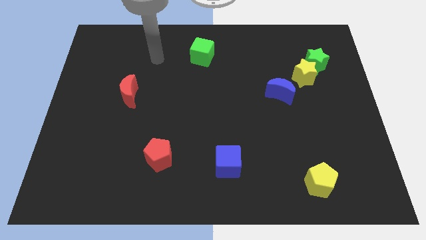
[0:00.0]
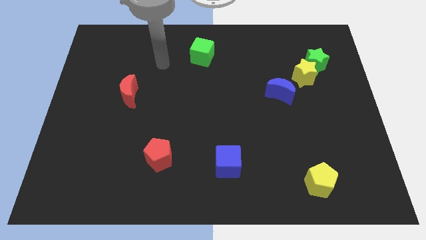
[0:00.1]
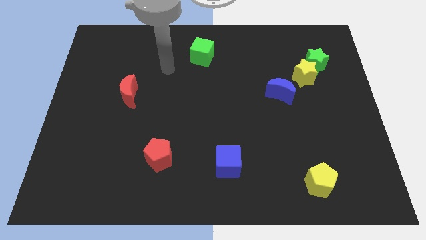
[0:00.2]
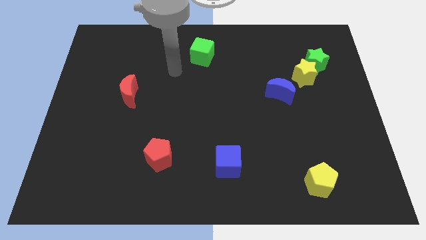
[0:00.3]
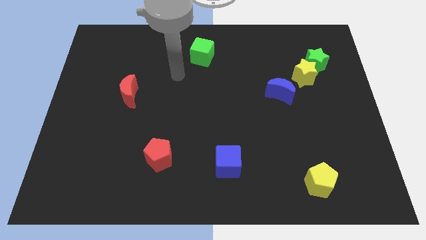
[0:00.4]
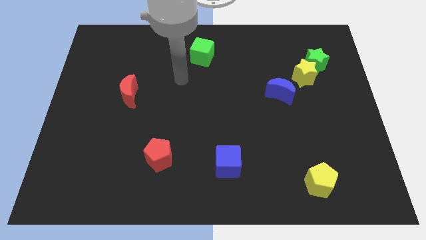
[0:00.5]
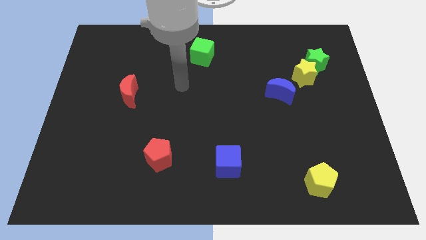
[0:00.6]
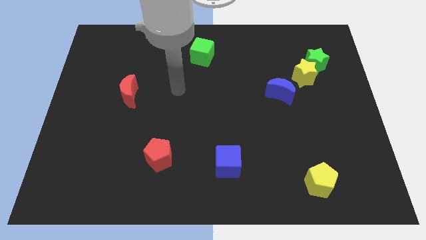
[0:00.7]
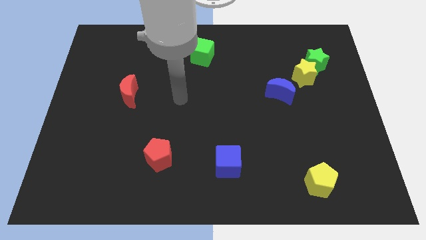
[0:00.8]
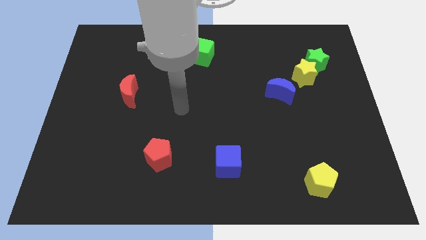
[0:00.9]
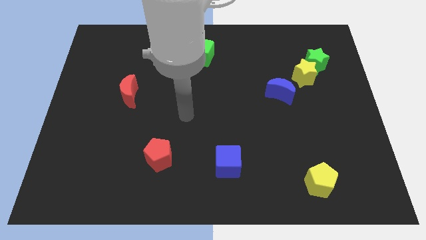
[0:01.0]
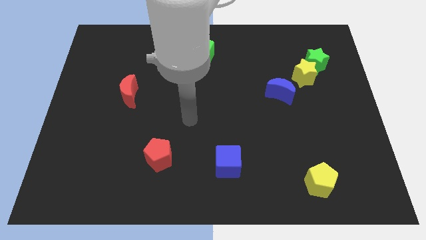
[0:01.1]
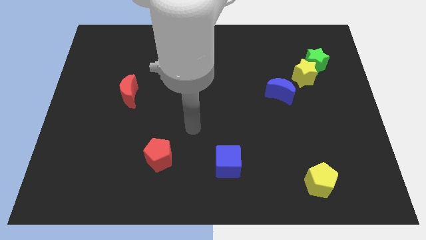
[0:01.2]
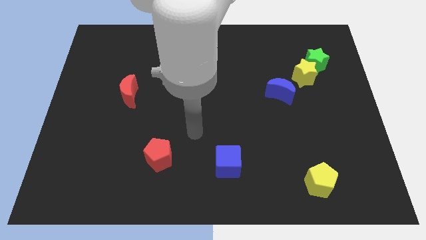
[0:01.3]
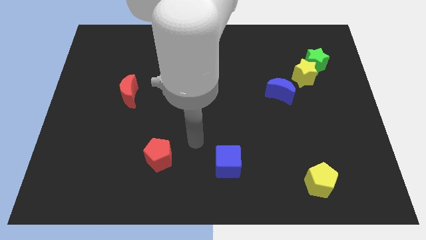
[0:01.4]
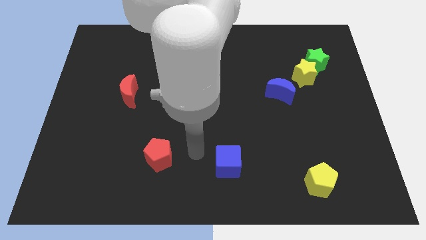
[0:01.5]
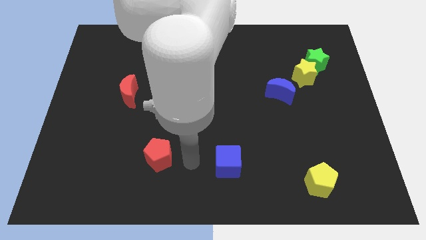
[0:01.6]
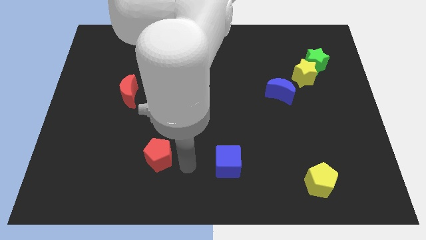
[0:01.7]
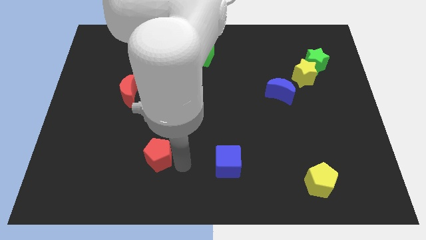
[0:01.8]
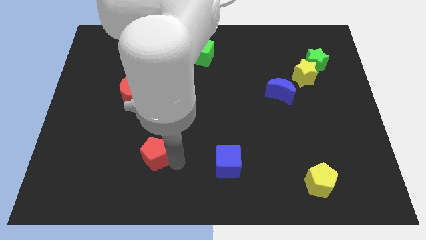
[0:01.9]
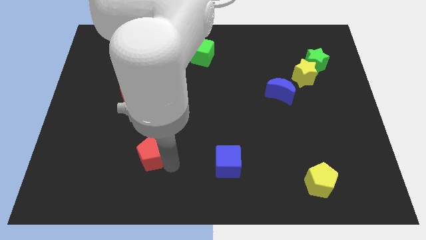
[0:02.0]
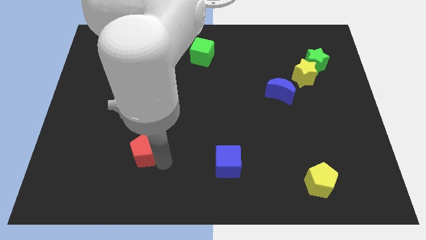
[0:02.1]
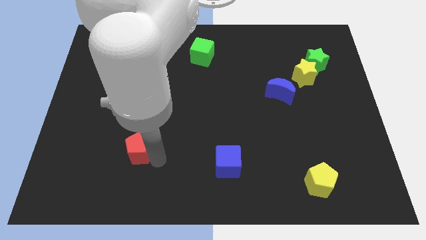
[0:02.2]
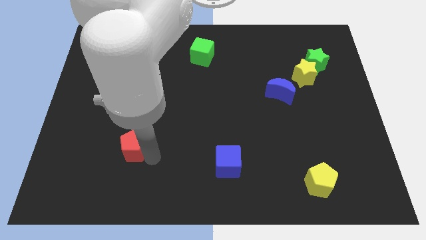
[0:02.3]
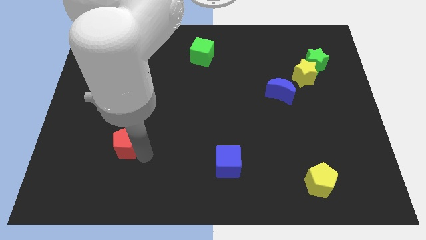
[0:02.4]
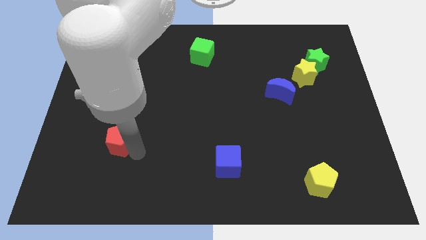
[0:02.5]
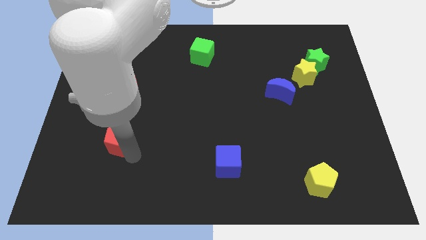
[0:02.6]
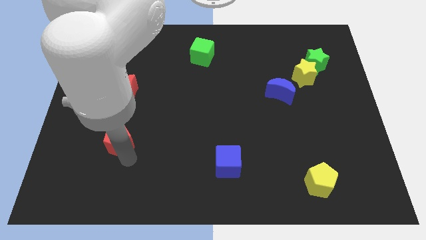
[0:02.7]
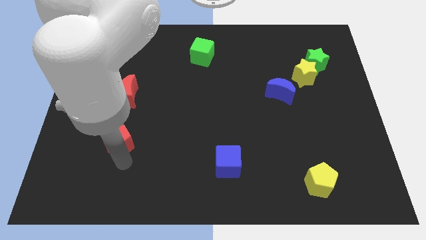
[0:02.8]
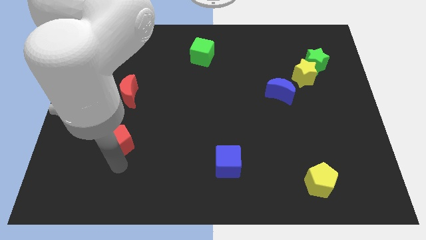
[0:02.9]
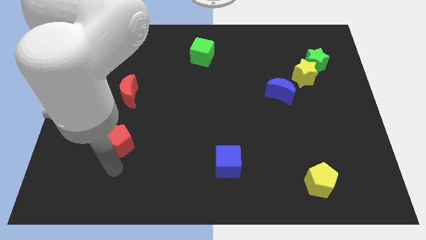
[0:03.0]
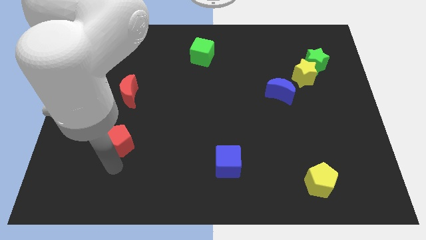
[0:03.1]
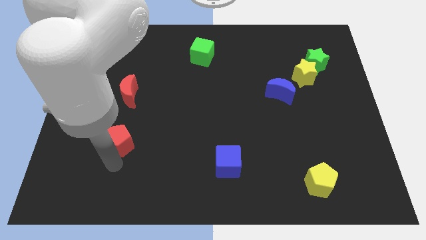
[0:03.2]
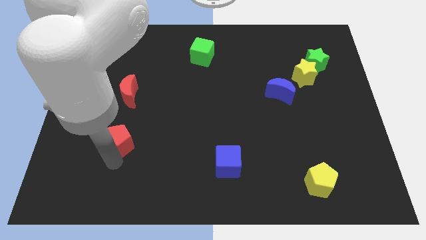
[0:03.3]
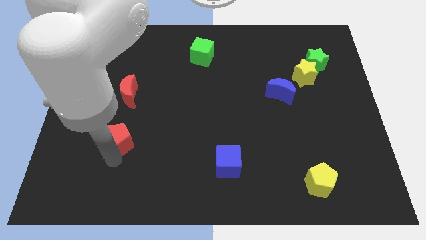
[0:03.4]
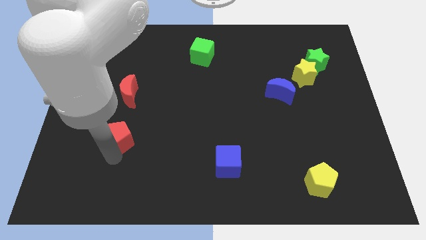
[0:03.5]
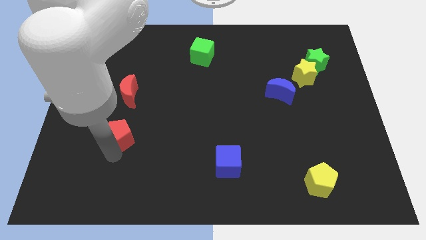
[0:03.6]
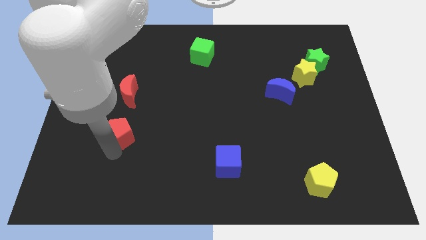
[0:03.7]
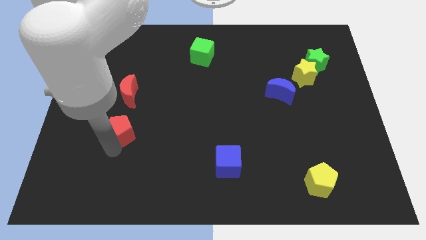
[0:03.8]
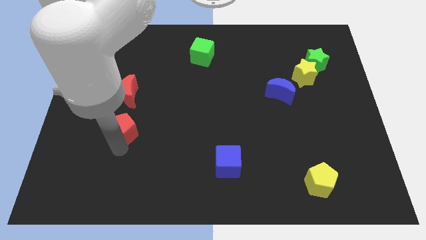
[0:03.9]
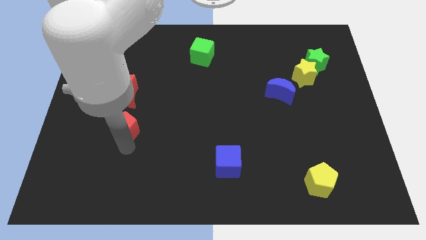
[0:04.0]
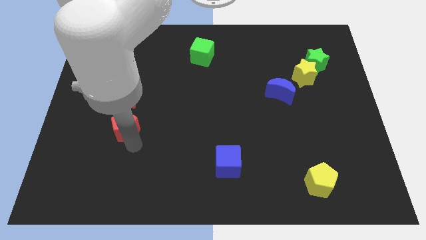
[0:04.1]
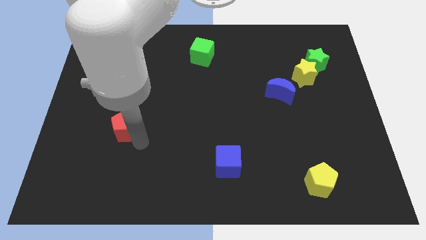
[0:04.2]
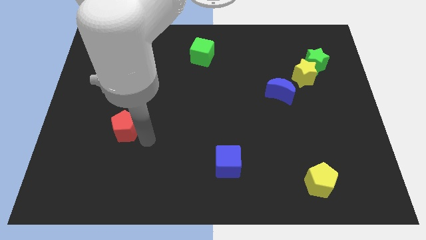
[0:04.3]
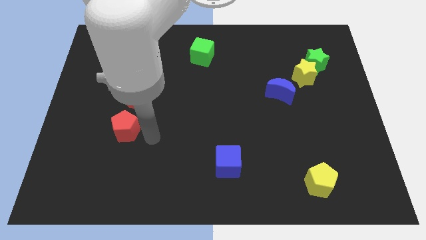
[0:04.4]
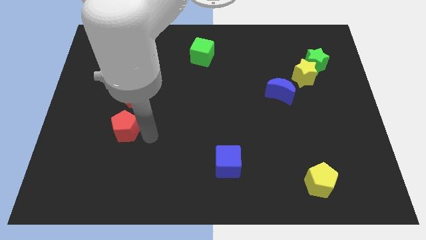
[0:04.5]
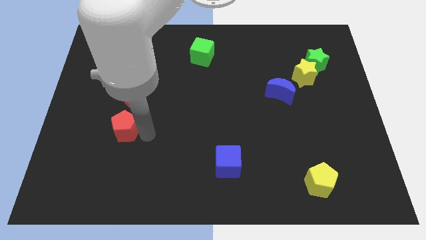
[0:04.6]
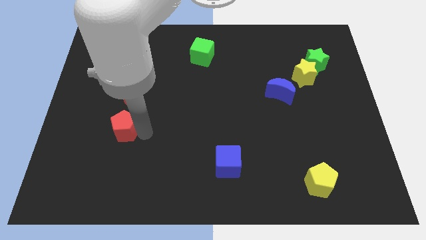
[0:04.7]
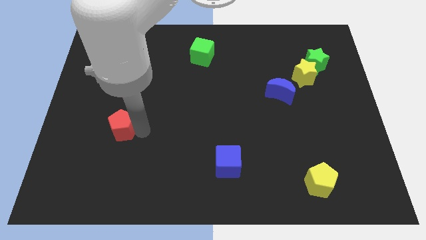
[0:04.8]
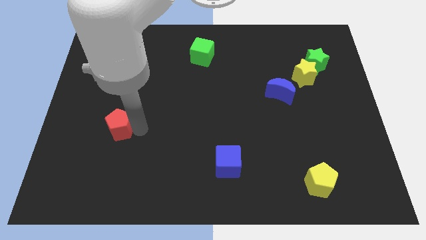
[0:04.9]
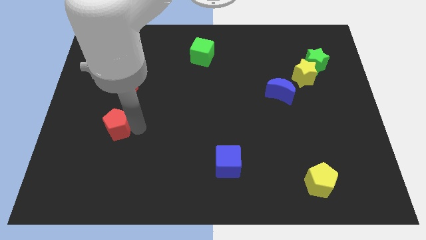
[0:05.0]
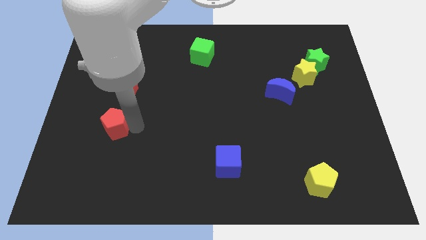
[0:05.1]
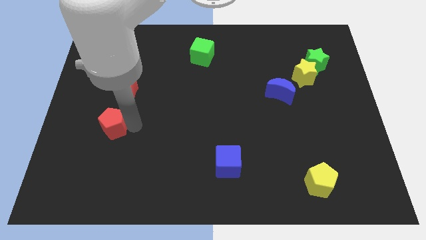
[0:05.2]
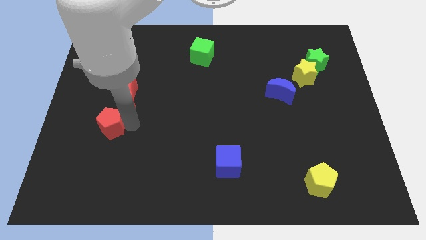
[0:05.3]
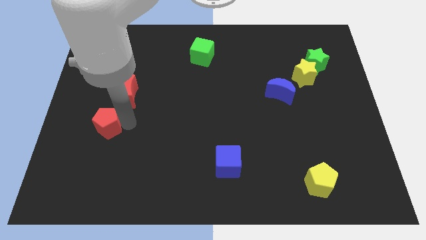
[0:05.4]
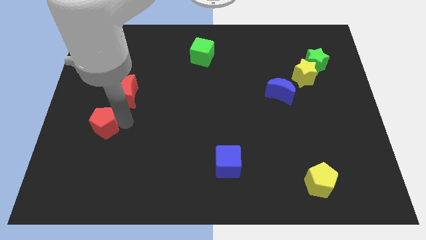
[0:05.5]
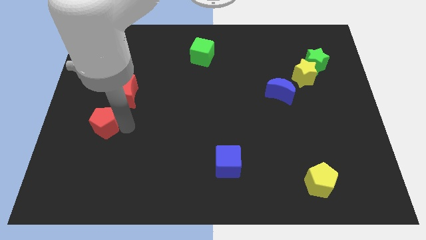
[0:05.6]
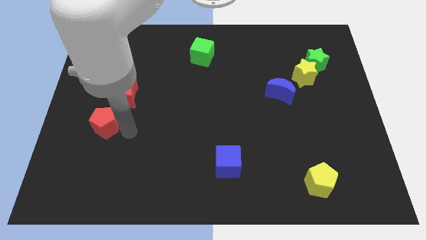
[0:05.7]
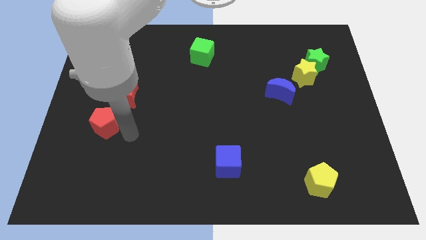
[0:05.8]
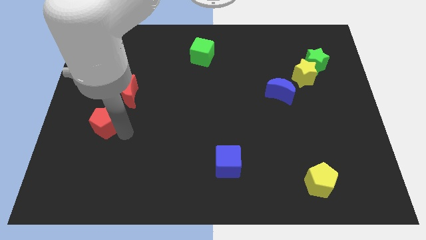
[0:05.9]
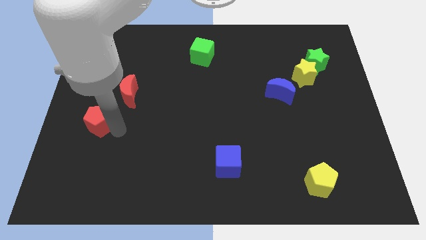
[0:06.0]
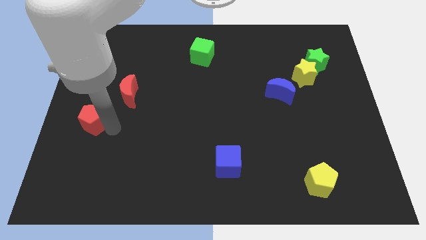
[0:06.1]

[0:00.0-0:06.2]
slide the red pentagon to the center left

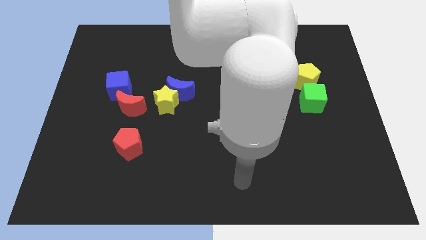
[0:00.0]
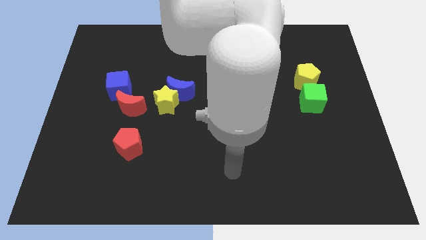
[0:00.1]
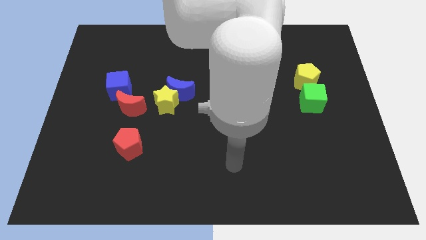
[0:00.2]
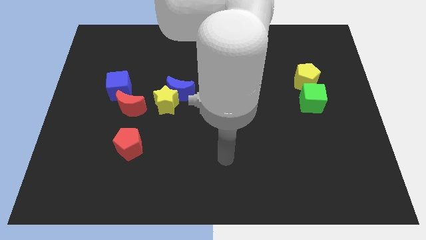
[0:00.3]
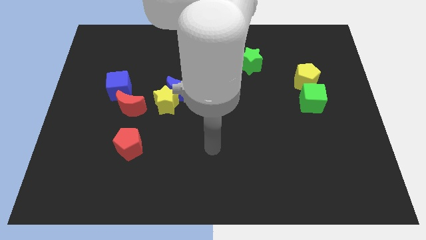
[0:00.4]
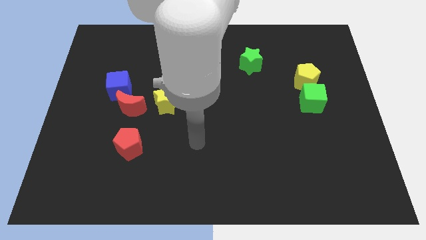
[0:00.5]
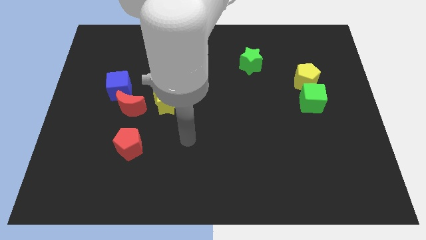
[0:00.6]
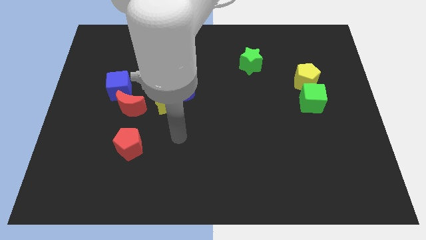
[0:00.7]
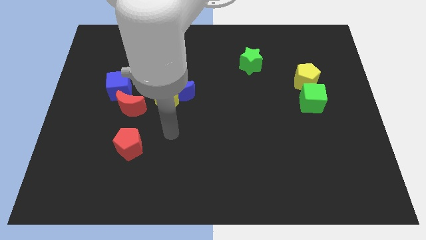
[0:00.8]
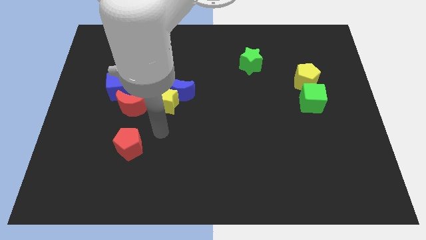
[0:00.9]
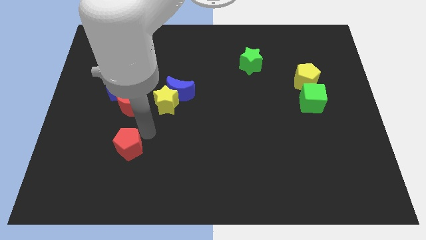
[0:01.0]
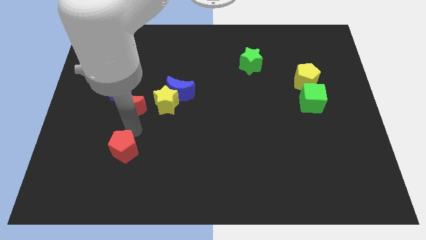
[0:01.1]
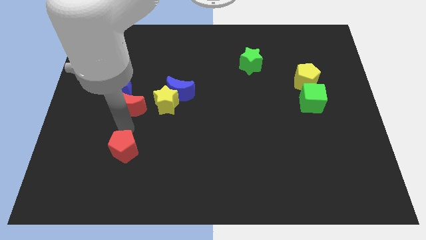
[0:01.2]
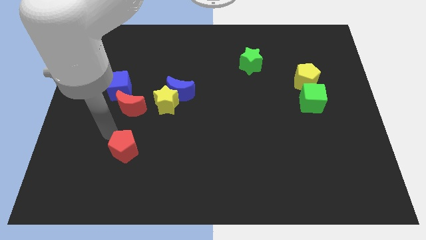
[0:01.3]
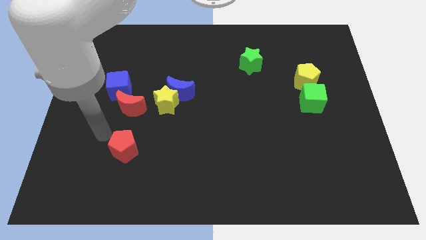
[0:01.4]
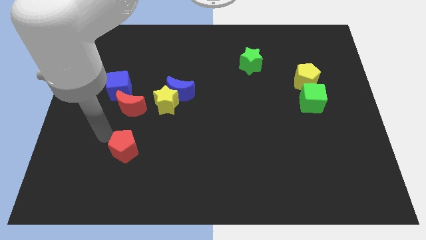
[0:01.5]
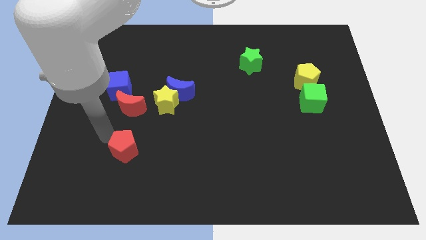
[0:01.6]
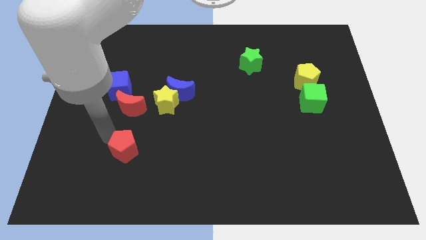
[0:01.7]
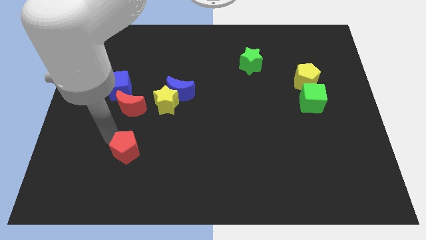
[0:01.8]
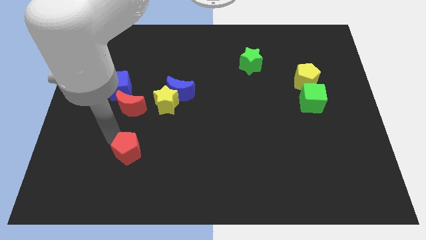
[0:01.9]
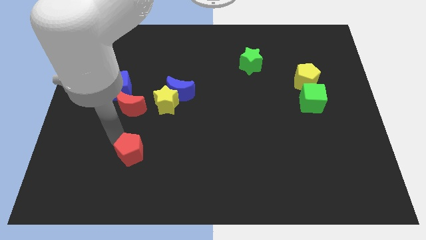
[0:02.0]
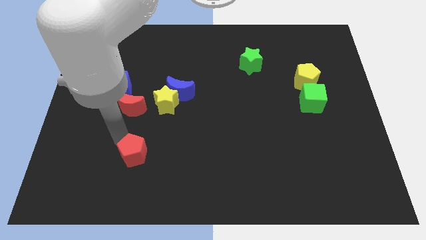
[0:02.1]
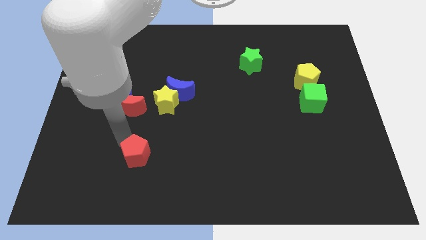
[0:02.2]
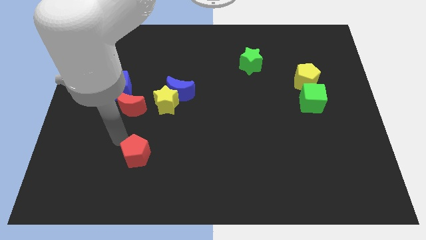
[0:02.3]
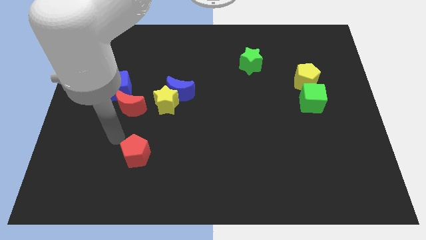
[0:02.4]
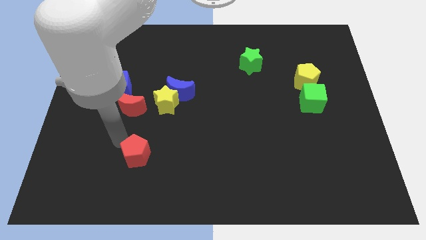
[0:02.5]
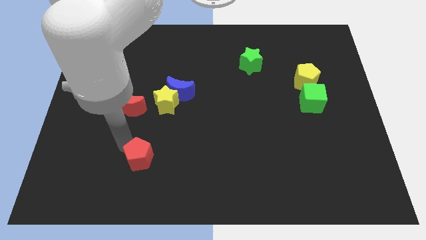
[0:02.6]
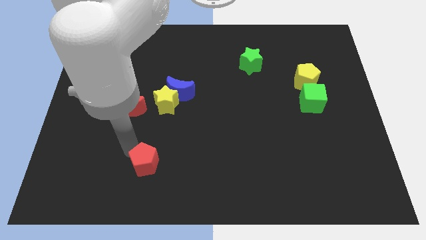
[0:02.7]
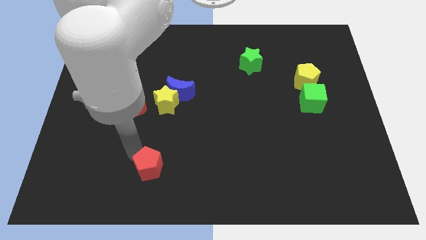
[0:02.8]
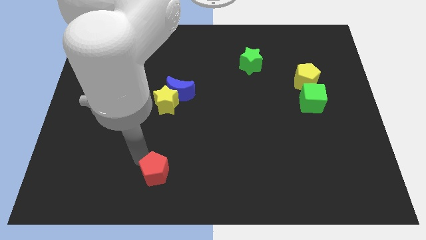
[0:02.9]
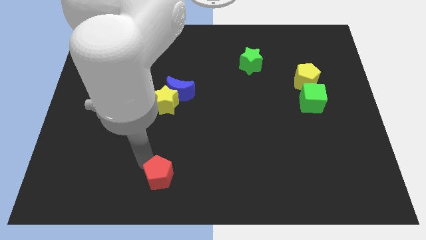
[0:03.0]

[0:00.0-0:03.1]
push the red pentagon to the bottom side
